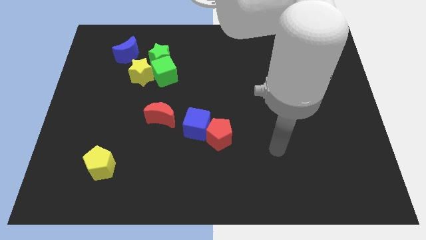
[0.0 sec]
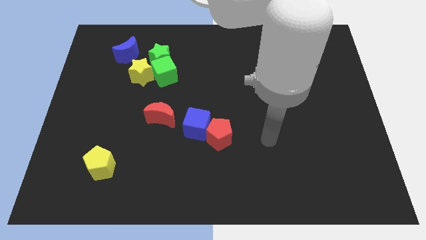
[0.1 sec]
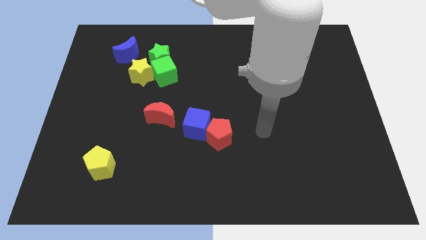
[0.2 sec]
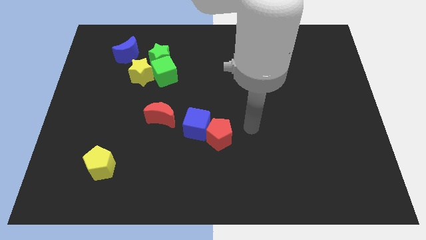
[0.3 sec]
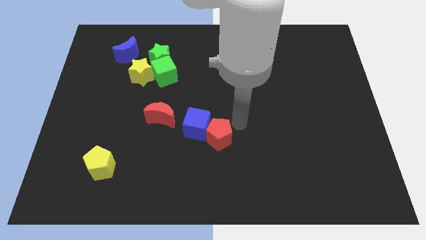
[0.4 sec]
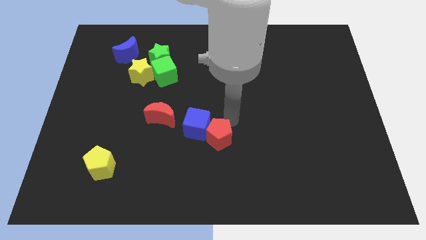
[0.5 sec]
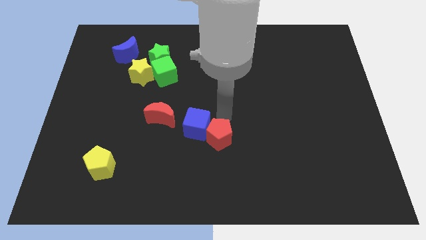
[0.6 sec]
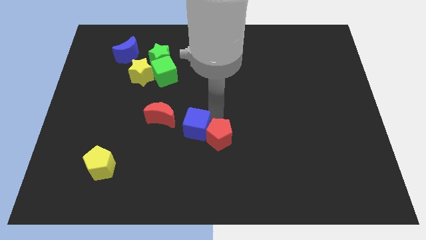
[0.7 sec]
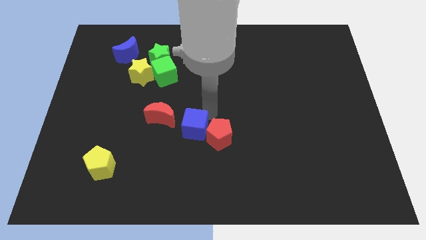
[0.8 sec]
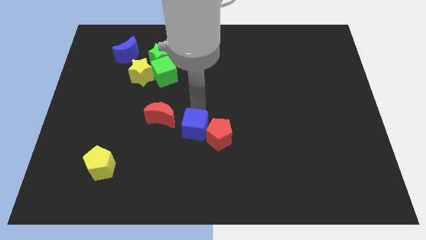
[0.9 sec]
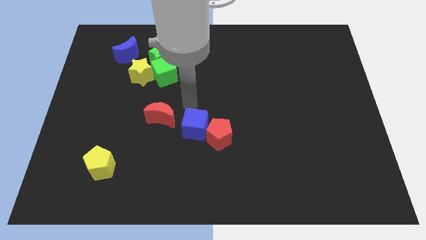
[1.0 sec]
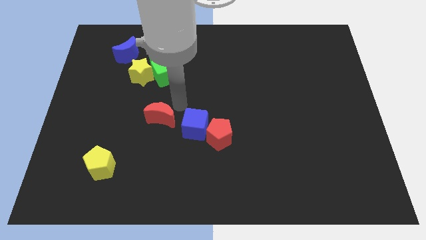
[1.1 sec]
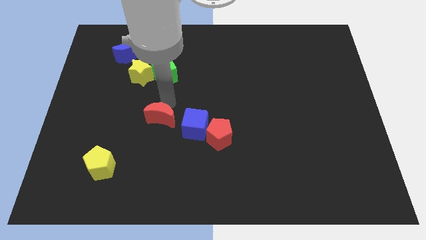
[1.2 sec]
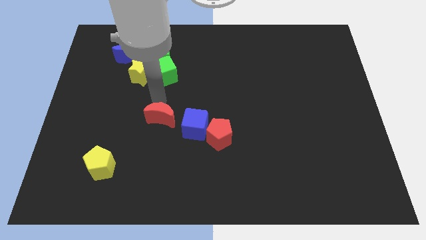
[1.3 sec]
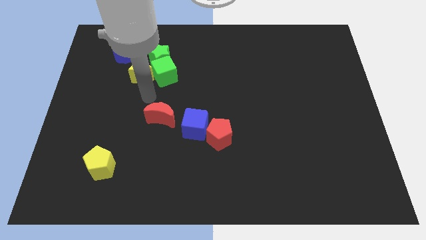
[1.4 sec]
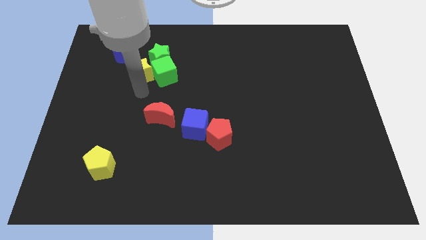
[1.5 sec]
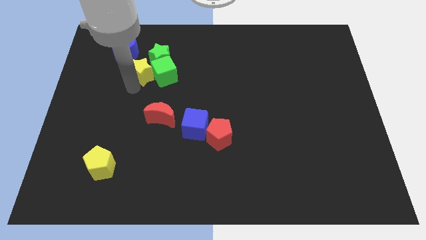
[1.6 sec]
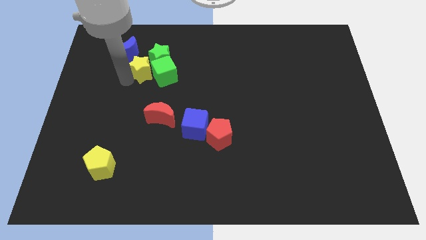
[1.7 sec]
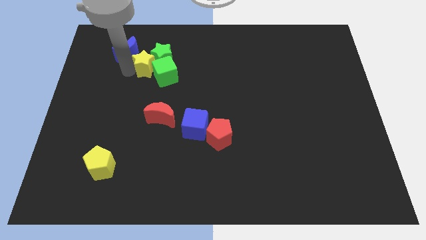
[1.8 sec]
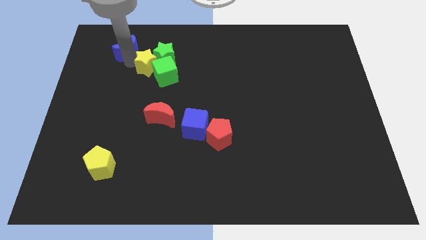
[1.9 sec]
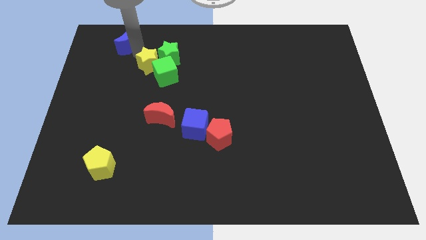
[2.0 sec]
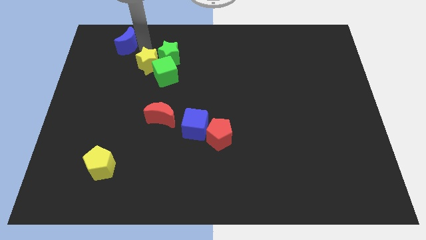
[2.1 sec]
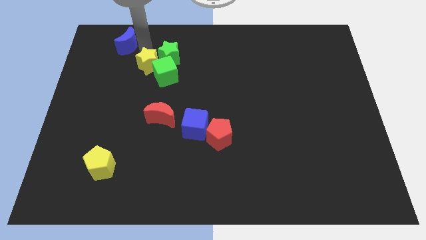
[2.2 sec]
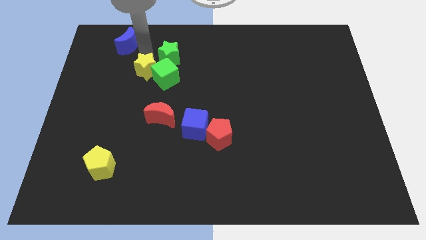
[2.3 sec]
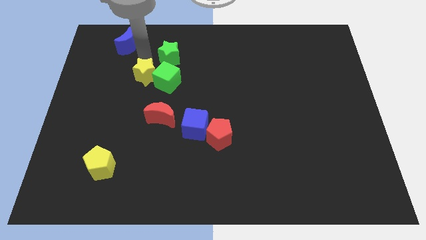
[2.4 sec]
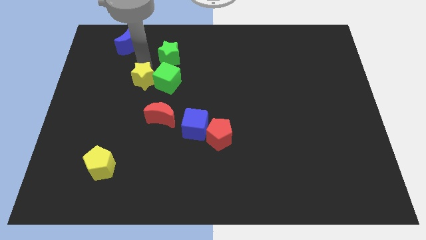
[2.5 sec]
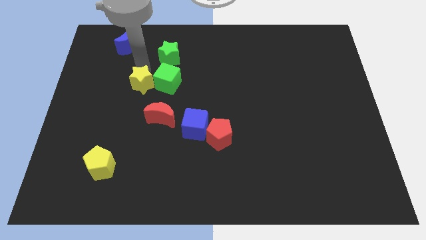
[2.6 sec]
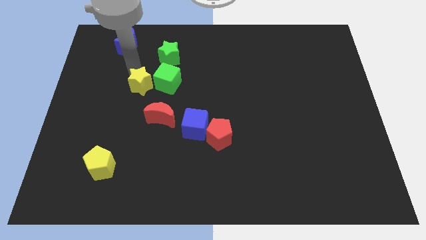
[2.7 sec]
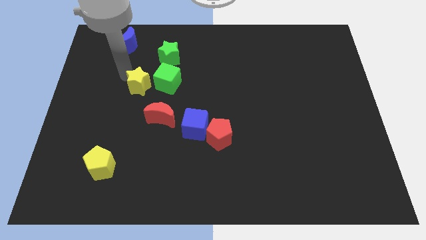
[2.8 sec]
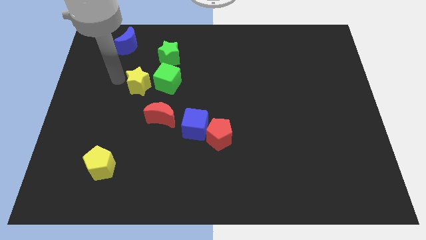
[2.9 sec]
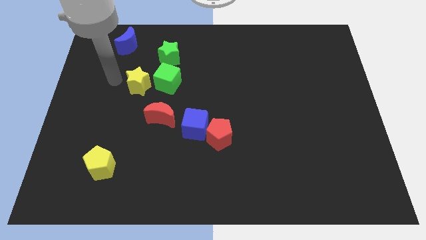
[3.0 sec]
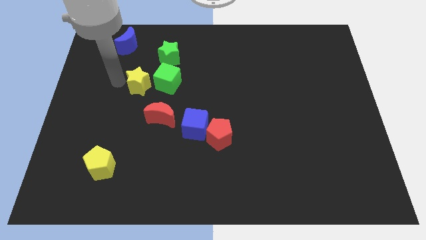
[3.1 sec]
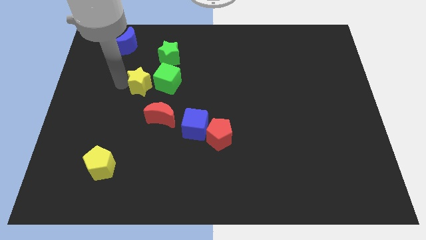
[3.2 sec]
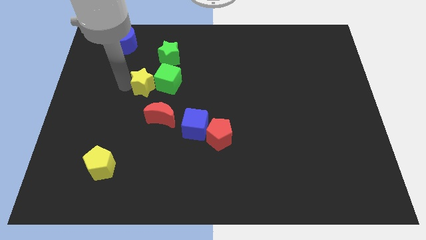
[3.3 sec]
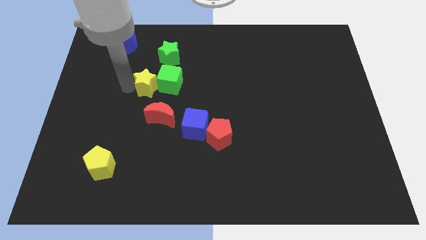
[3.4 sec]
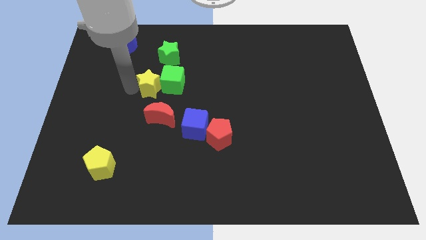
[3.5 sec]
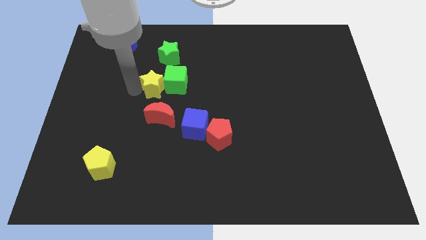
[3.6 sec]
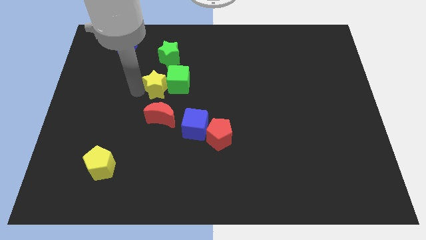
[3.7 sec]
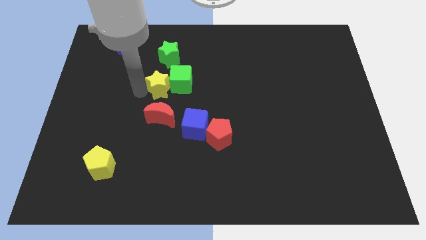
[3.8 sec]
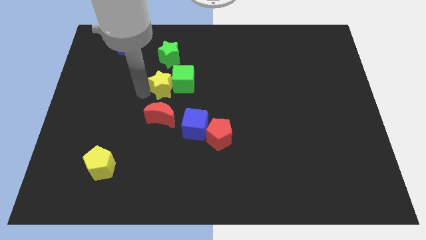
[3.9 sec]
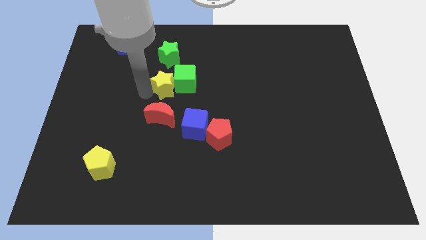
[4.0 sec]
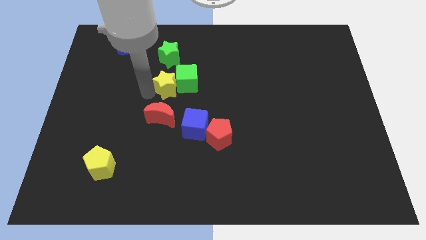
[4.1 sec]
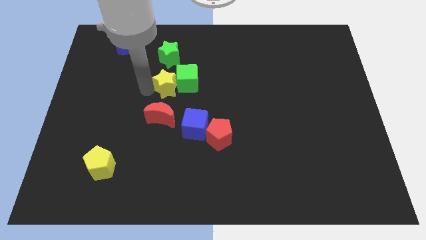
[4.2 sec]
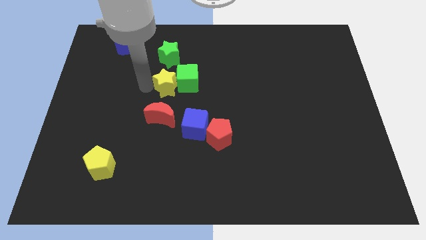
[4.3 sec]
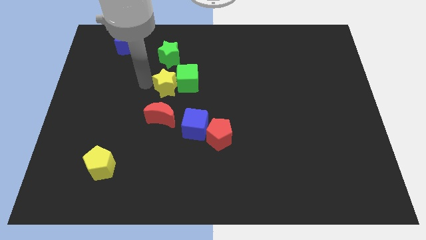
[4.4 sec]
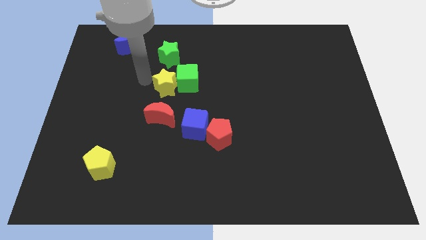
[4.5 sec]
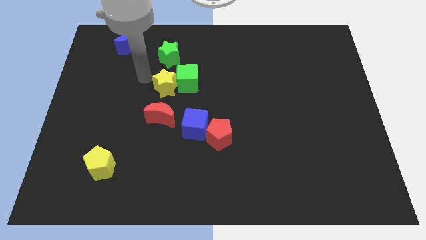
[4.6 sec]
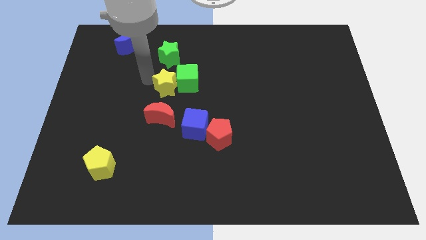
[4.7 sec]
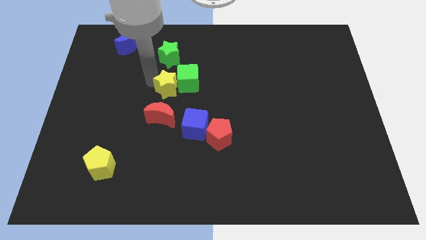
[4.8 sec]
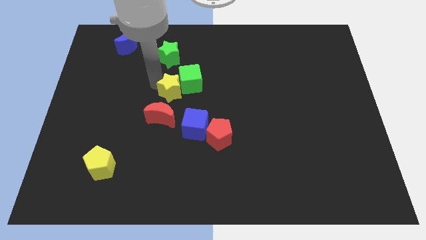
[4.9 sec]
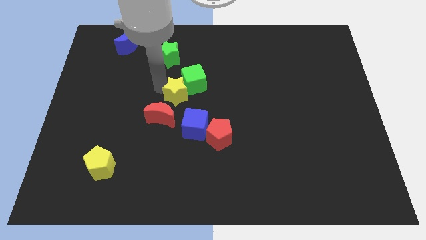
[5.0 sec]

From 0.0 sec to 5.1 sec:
slide the yellow star to the top side of the blue cube

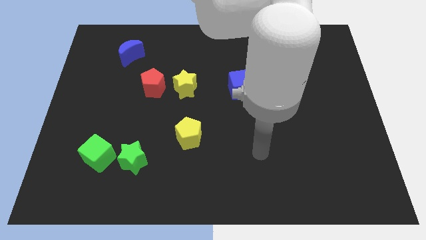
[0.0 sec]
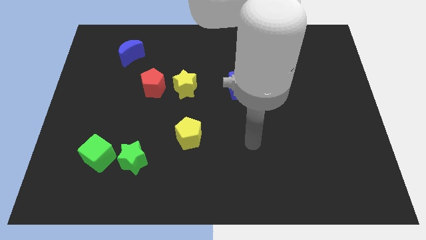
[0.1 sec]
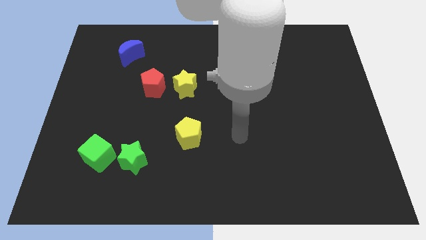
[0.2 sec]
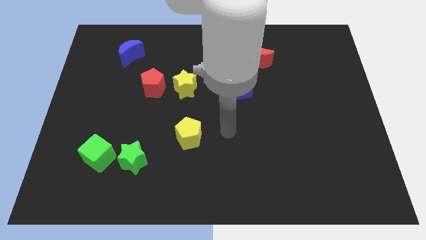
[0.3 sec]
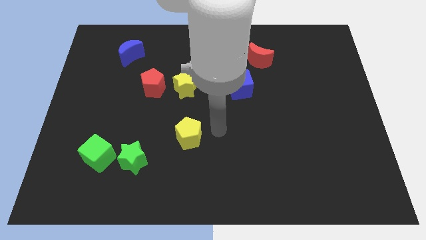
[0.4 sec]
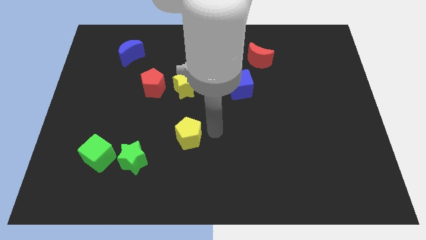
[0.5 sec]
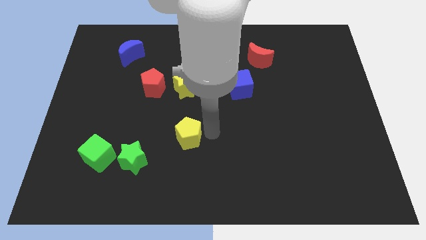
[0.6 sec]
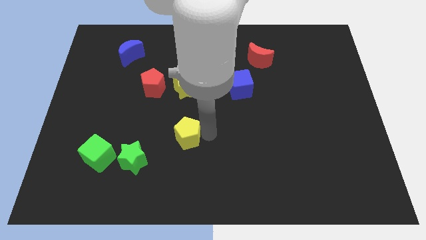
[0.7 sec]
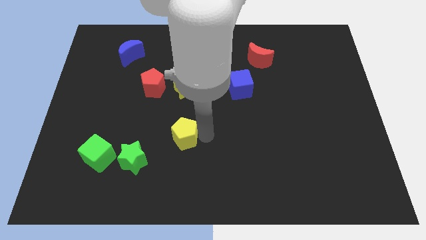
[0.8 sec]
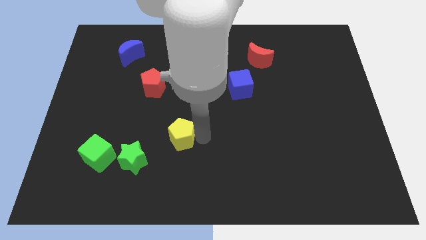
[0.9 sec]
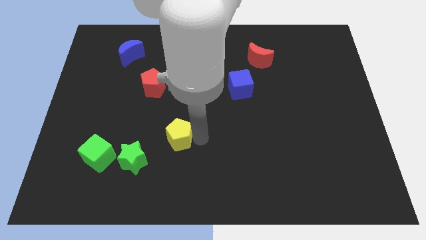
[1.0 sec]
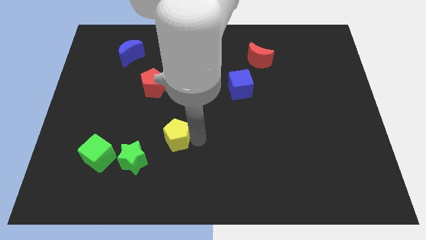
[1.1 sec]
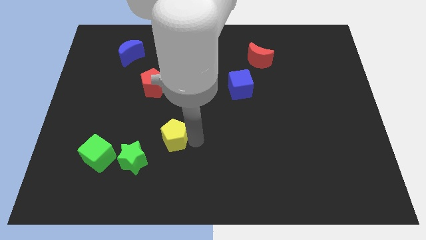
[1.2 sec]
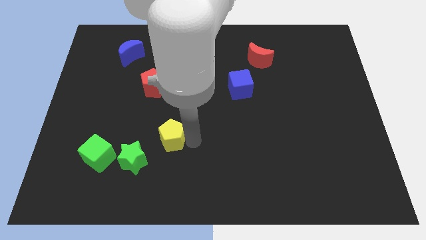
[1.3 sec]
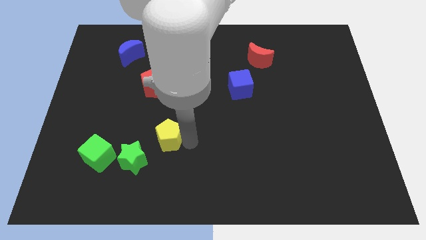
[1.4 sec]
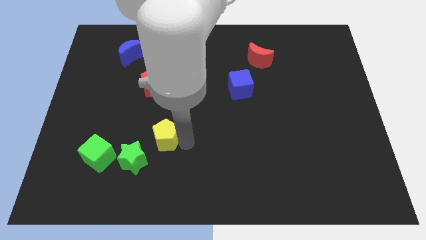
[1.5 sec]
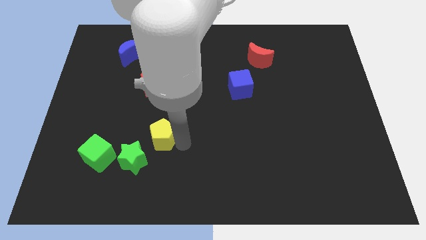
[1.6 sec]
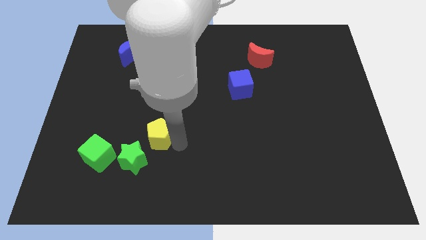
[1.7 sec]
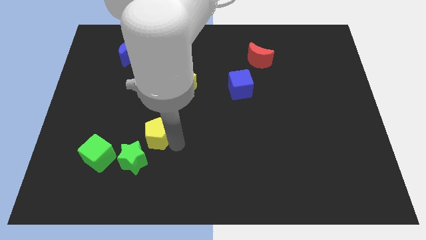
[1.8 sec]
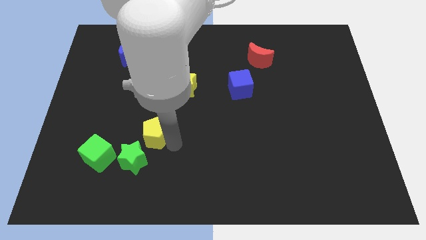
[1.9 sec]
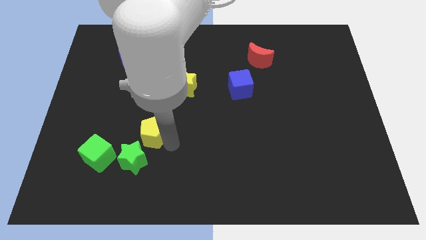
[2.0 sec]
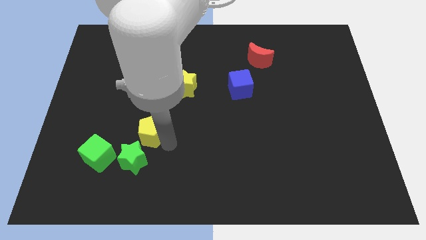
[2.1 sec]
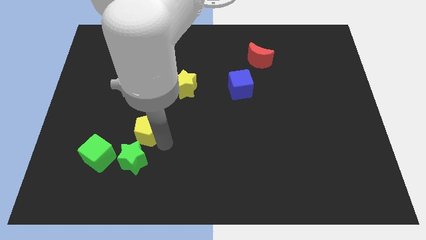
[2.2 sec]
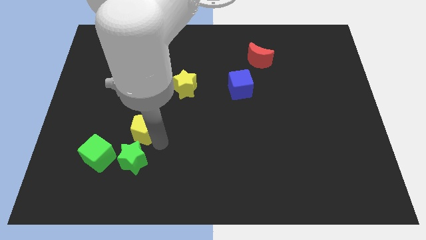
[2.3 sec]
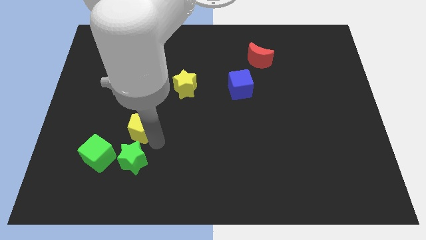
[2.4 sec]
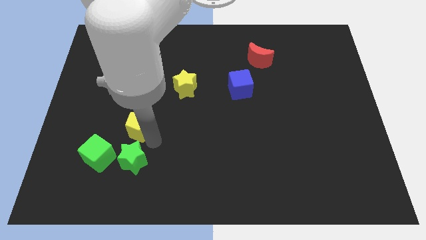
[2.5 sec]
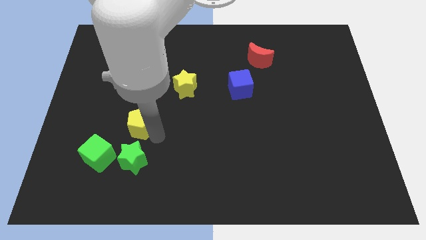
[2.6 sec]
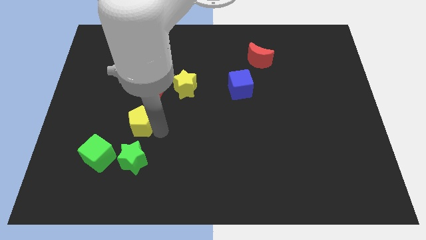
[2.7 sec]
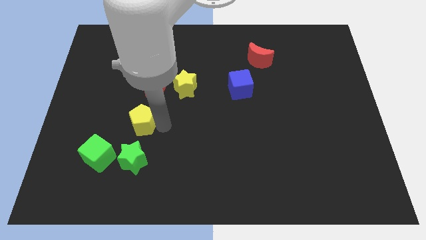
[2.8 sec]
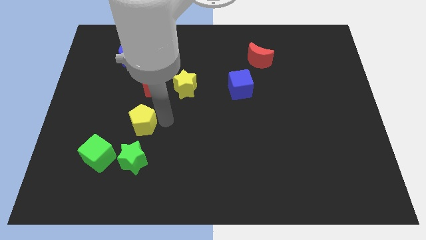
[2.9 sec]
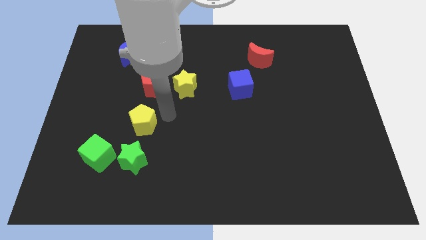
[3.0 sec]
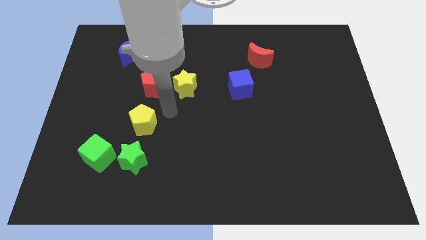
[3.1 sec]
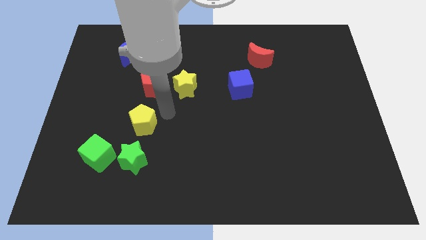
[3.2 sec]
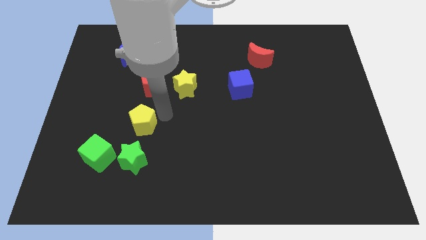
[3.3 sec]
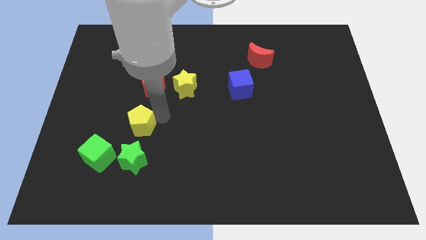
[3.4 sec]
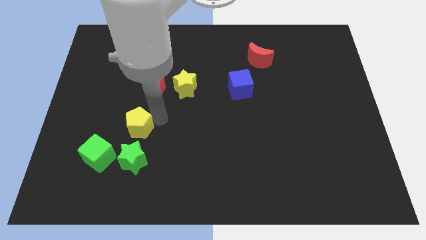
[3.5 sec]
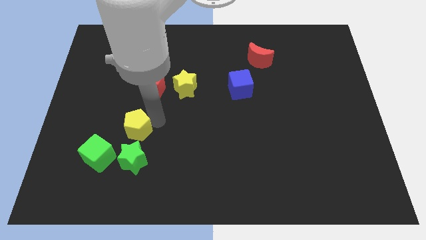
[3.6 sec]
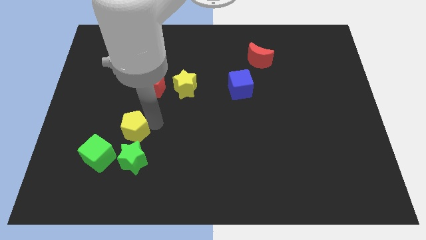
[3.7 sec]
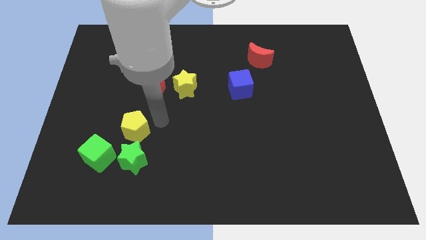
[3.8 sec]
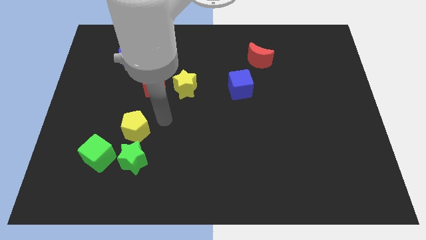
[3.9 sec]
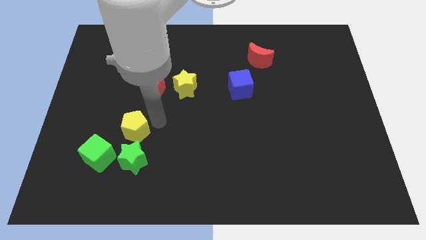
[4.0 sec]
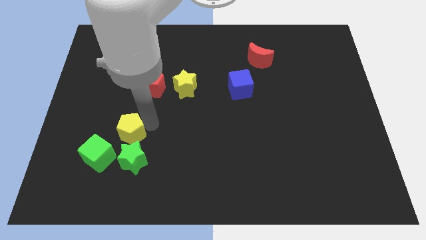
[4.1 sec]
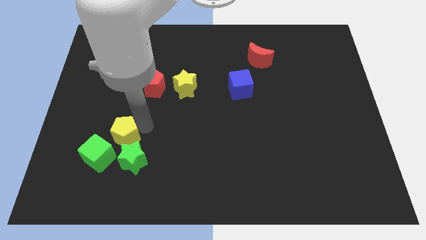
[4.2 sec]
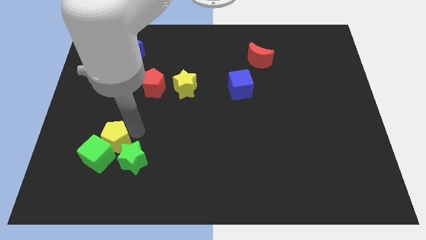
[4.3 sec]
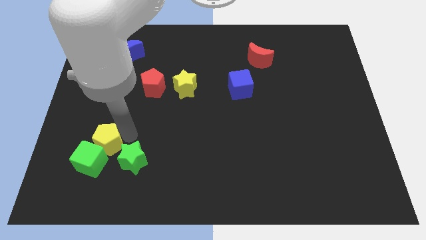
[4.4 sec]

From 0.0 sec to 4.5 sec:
put the yellow pentagon left of the green star
